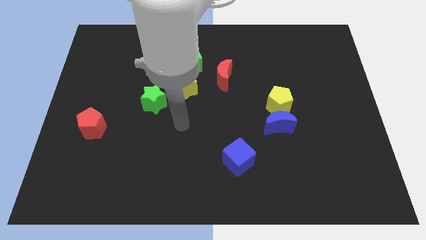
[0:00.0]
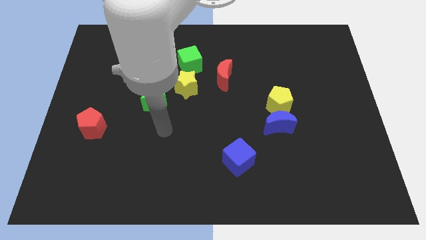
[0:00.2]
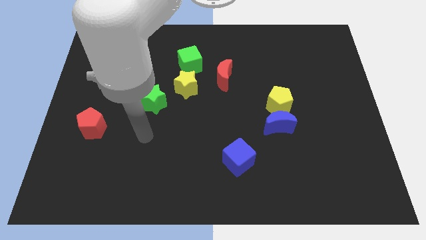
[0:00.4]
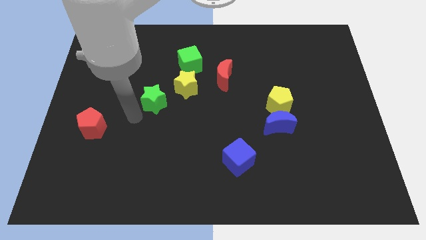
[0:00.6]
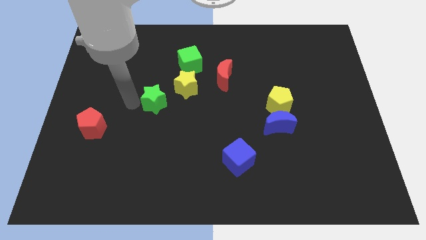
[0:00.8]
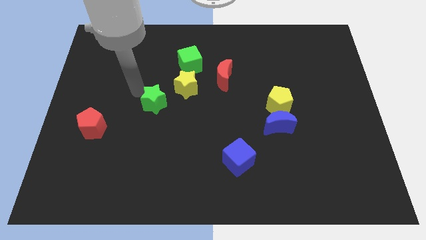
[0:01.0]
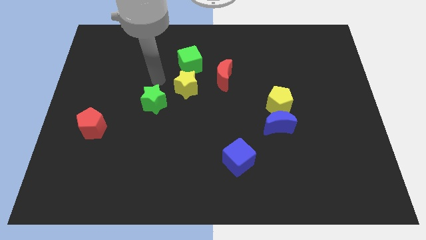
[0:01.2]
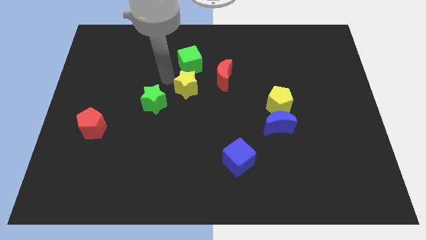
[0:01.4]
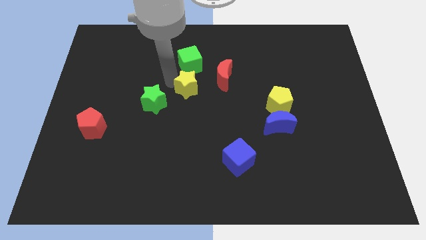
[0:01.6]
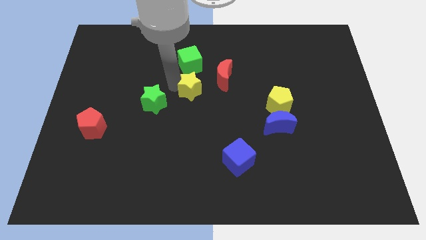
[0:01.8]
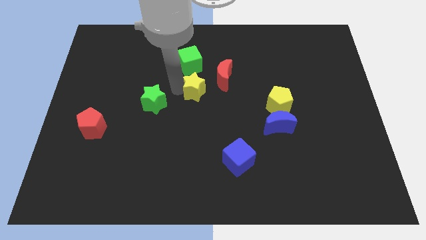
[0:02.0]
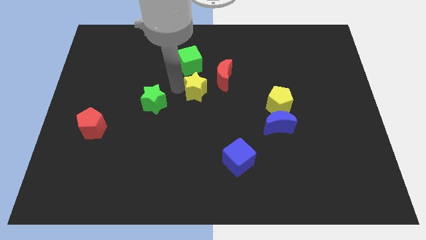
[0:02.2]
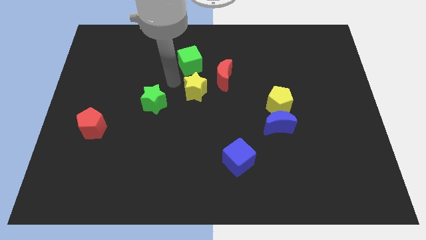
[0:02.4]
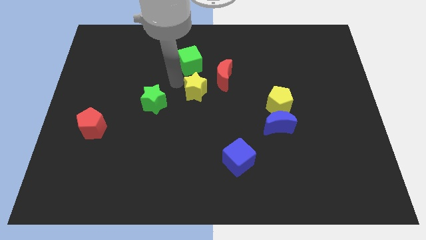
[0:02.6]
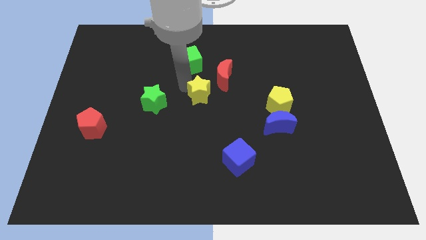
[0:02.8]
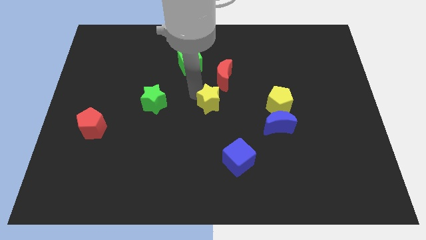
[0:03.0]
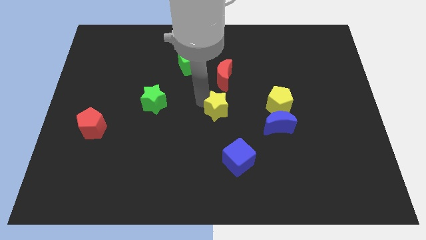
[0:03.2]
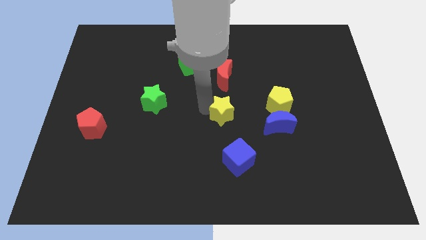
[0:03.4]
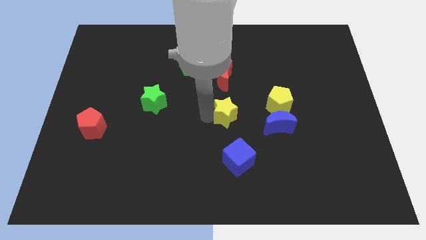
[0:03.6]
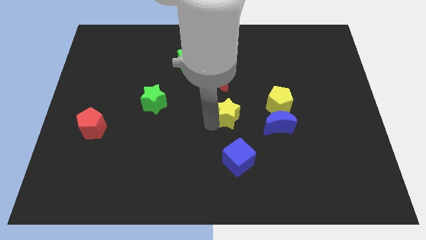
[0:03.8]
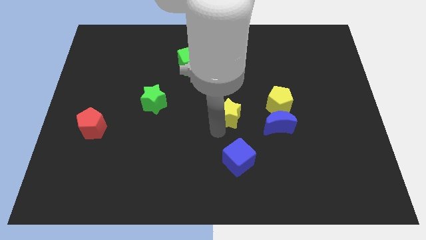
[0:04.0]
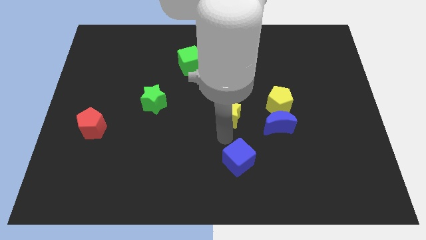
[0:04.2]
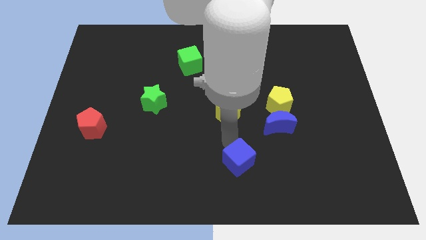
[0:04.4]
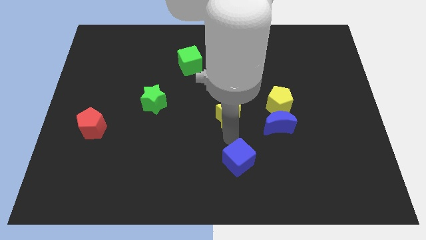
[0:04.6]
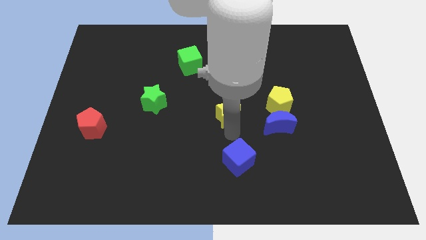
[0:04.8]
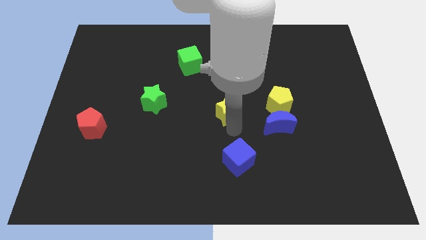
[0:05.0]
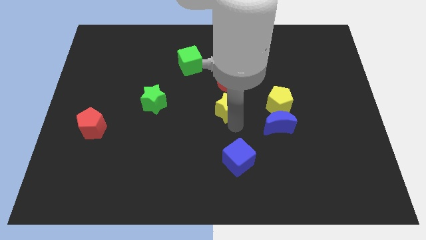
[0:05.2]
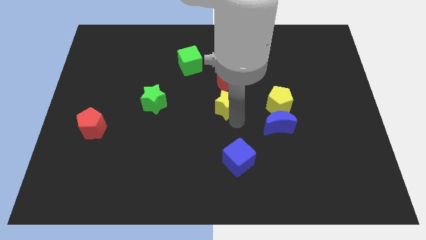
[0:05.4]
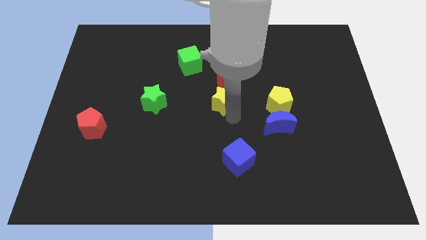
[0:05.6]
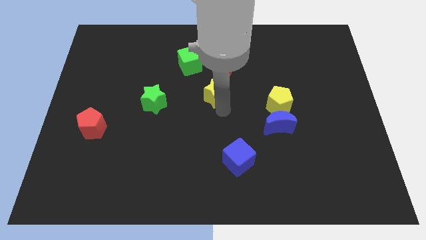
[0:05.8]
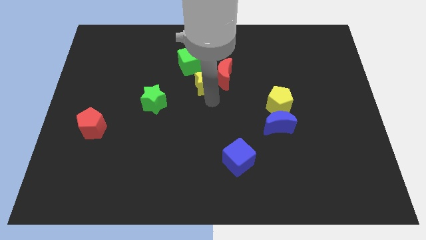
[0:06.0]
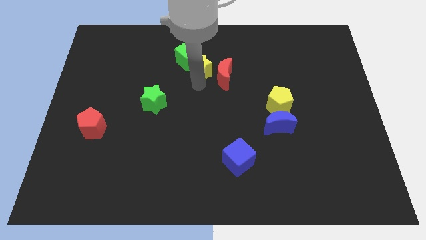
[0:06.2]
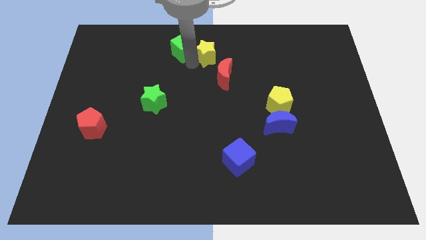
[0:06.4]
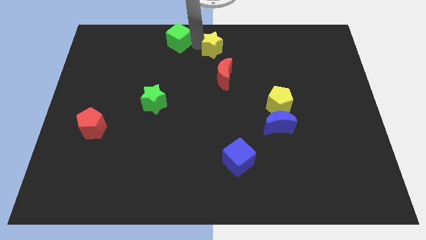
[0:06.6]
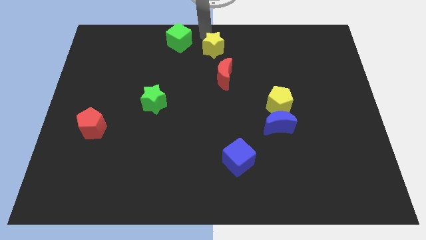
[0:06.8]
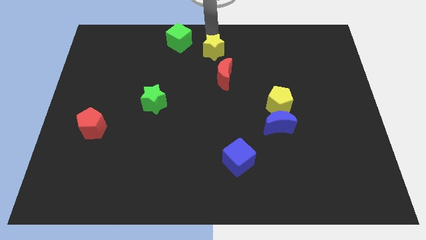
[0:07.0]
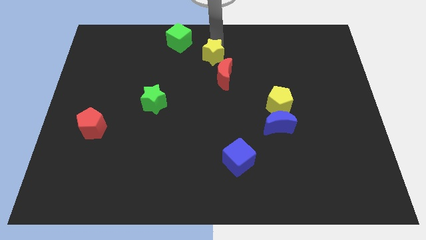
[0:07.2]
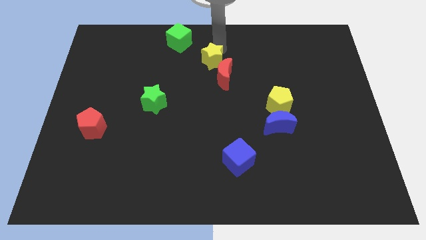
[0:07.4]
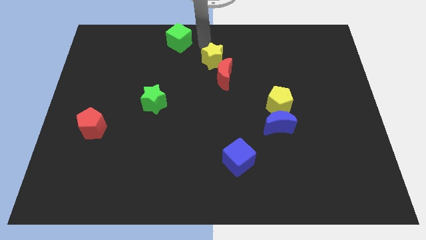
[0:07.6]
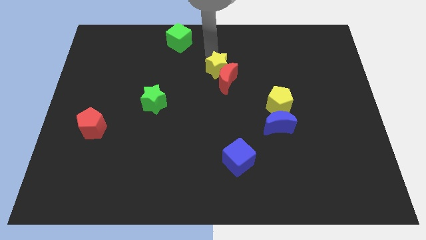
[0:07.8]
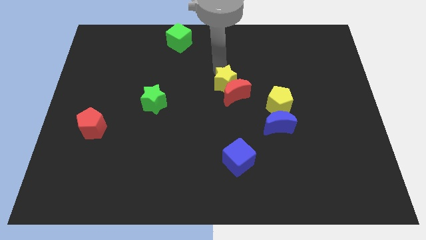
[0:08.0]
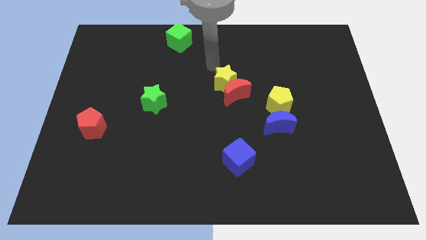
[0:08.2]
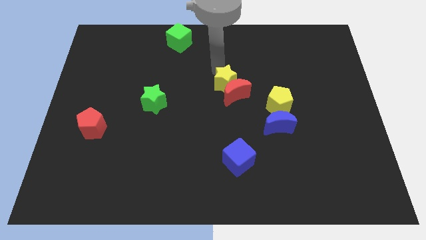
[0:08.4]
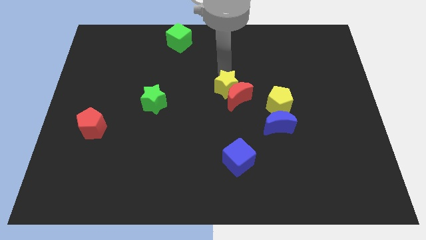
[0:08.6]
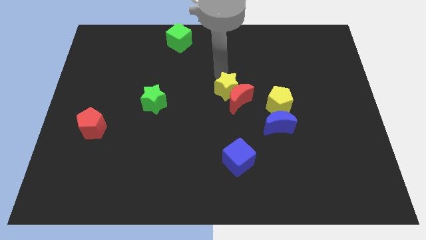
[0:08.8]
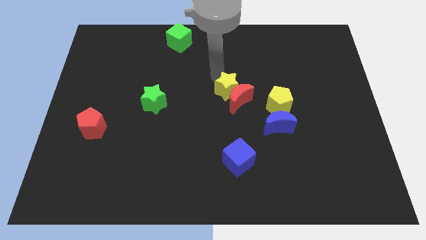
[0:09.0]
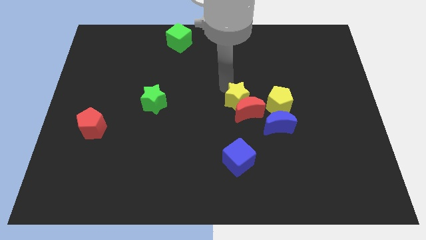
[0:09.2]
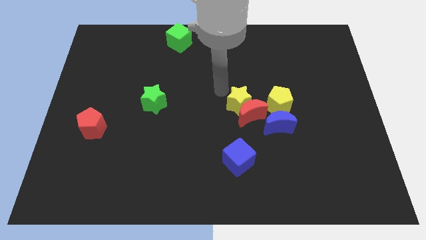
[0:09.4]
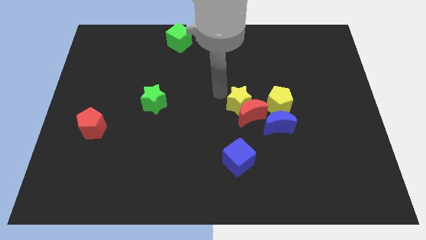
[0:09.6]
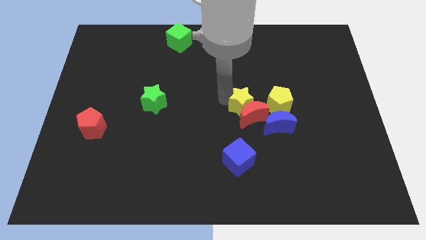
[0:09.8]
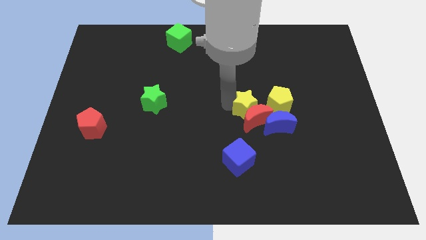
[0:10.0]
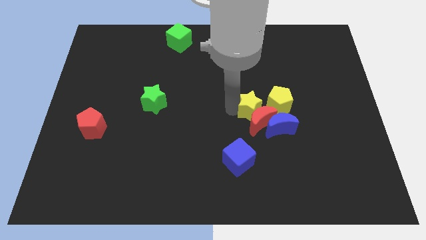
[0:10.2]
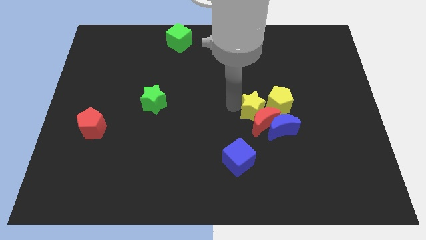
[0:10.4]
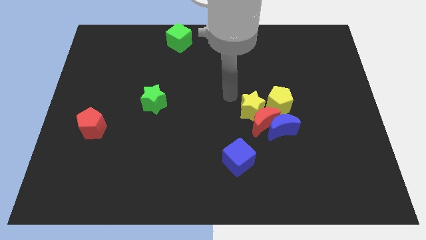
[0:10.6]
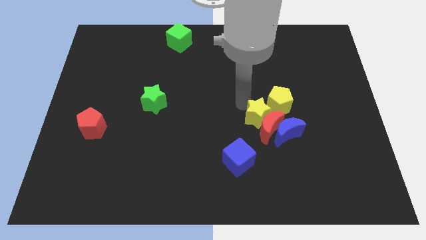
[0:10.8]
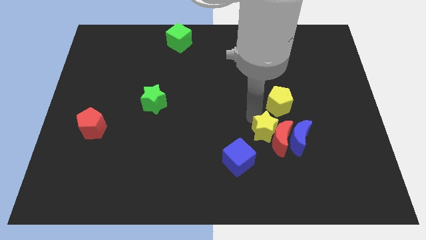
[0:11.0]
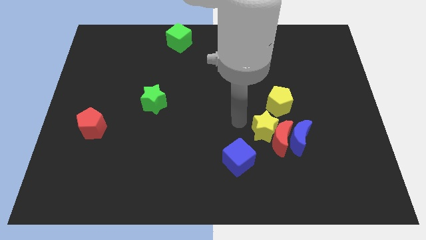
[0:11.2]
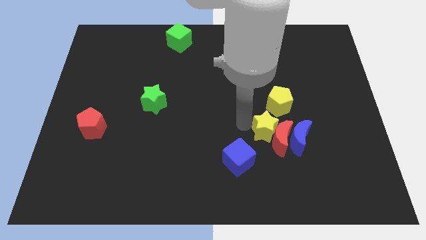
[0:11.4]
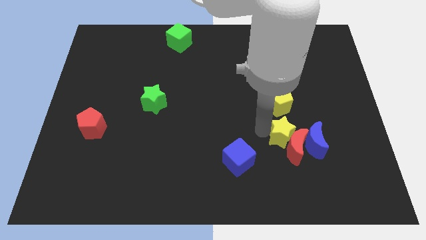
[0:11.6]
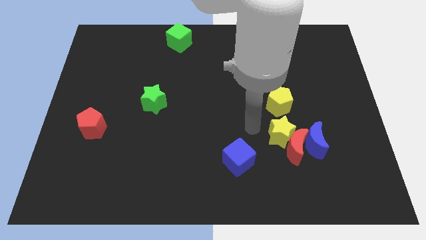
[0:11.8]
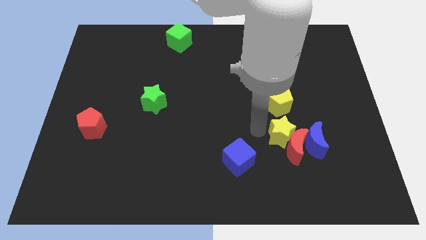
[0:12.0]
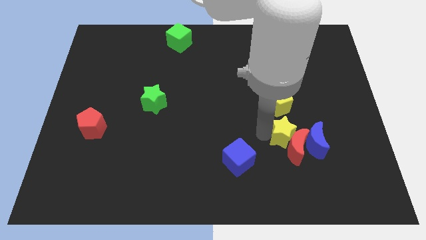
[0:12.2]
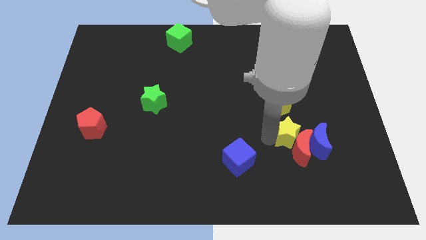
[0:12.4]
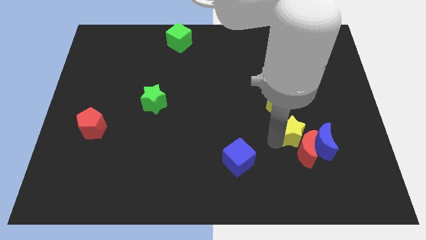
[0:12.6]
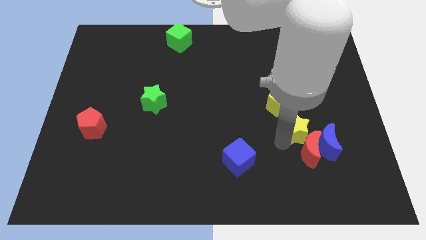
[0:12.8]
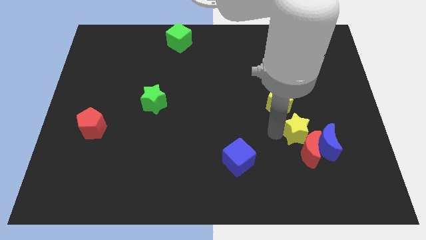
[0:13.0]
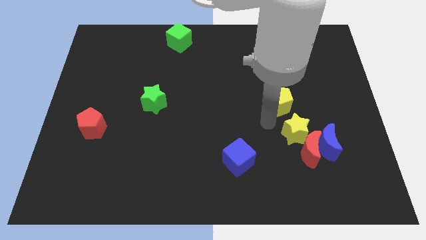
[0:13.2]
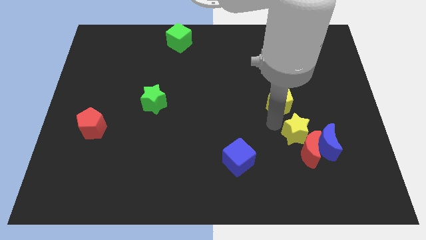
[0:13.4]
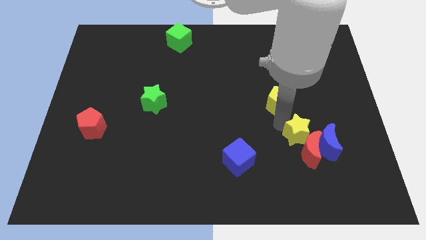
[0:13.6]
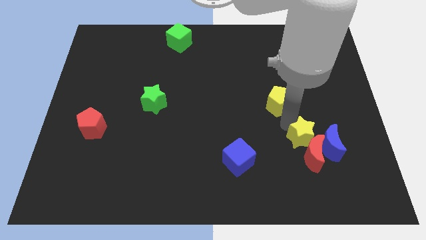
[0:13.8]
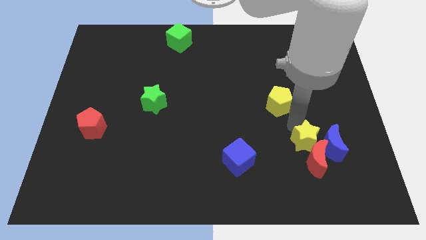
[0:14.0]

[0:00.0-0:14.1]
push the yellow star next to the blue moon

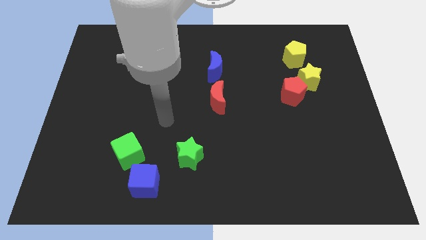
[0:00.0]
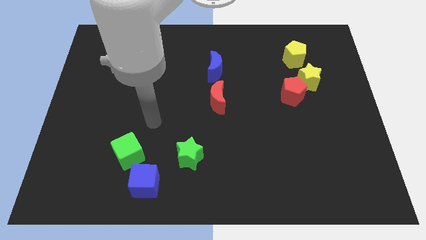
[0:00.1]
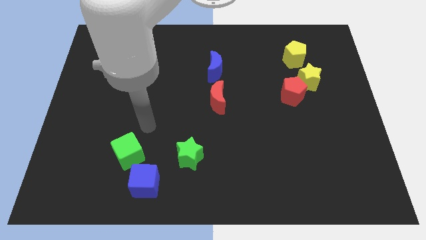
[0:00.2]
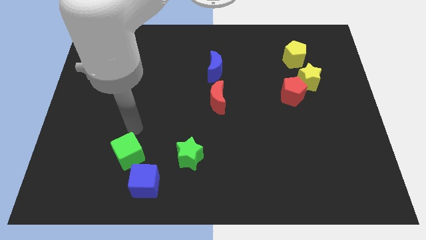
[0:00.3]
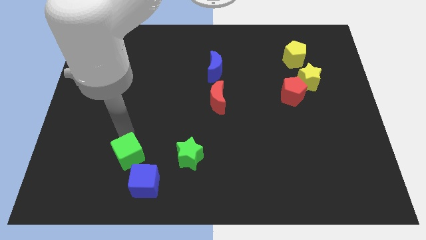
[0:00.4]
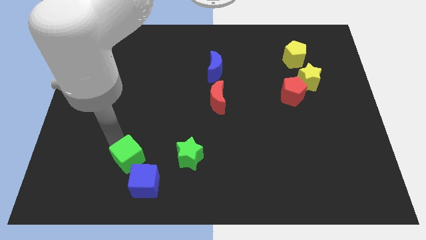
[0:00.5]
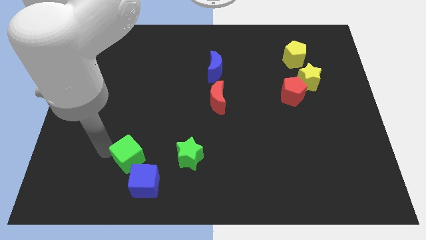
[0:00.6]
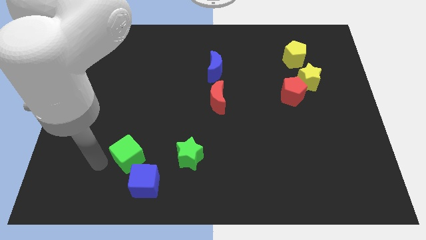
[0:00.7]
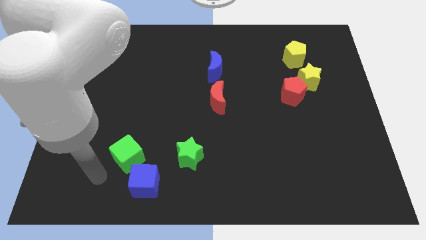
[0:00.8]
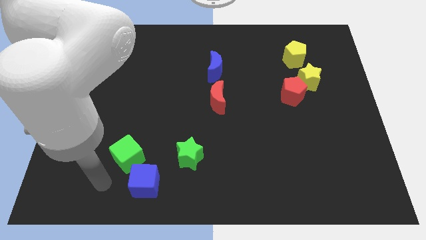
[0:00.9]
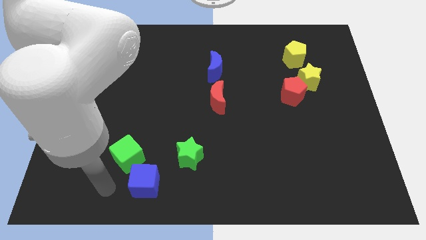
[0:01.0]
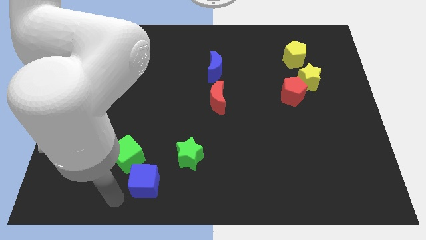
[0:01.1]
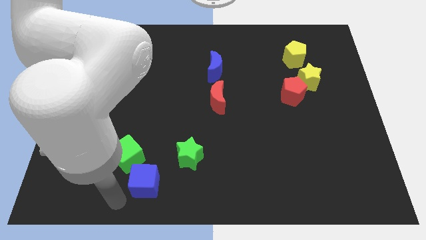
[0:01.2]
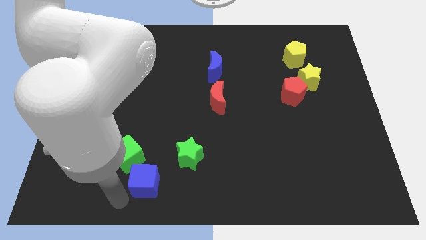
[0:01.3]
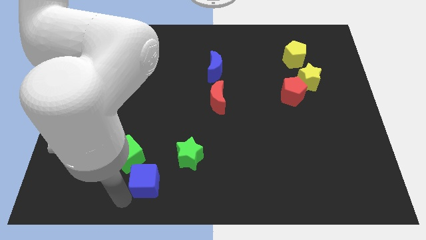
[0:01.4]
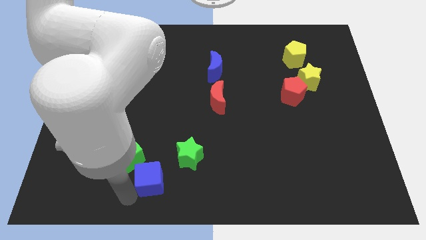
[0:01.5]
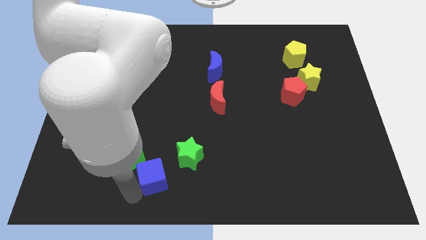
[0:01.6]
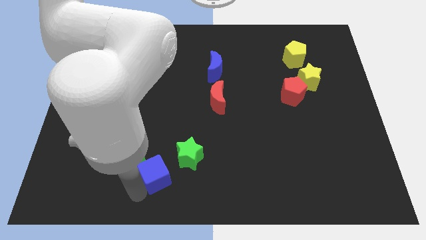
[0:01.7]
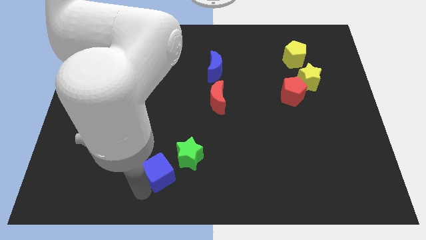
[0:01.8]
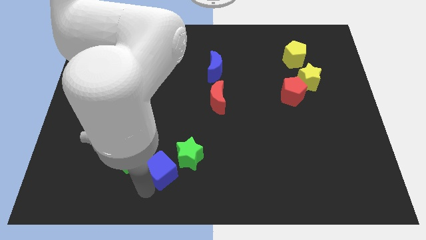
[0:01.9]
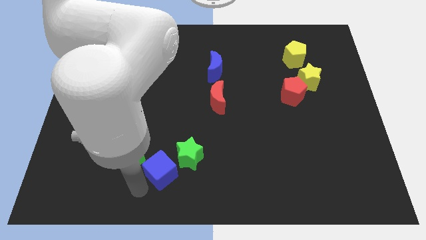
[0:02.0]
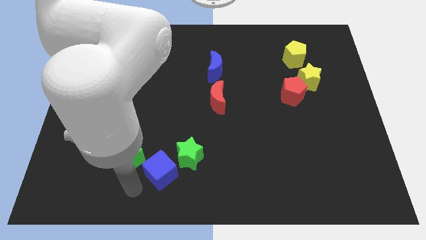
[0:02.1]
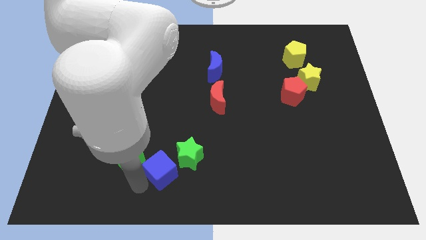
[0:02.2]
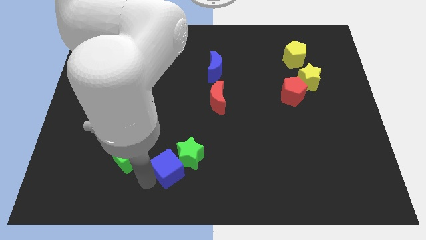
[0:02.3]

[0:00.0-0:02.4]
put the blue cube close to the green star
